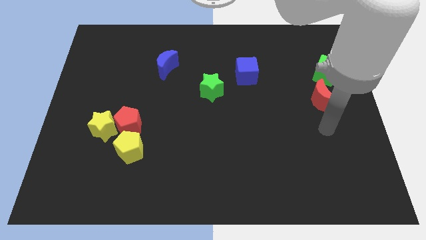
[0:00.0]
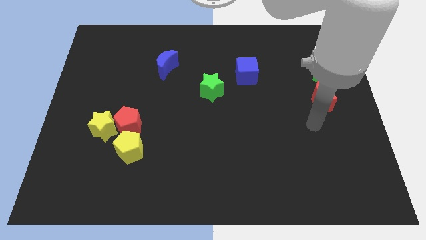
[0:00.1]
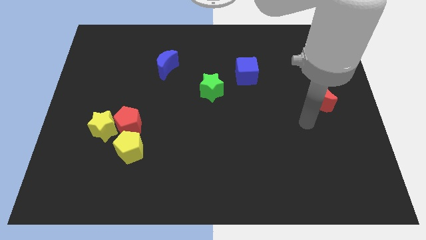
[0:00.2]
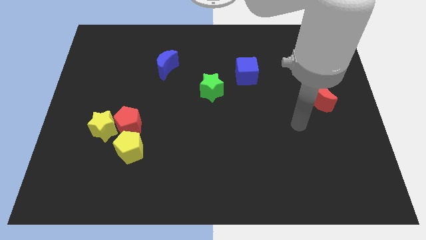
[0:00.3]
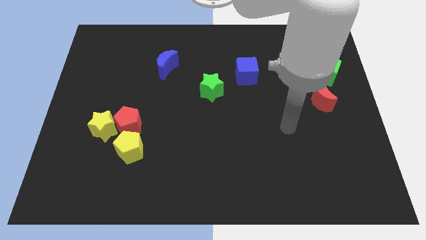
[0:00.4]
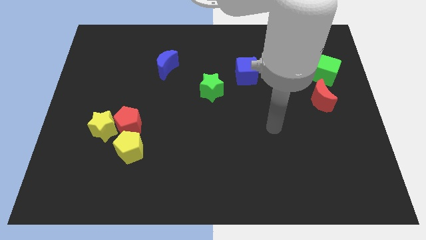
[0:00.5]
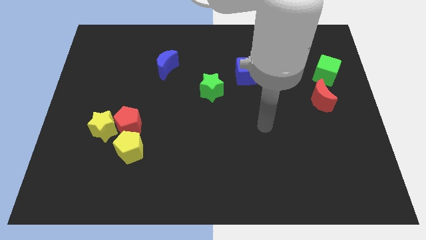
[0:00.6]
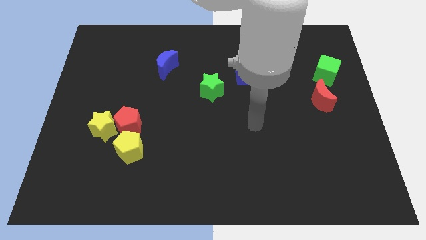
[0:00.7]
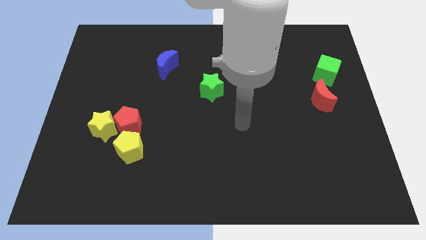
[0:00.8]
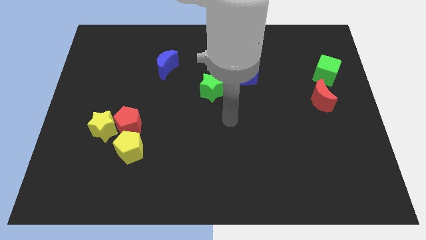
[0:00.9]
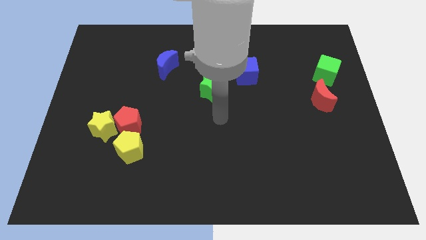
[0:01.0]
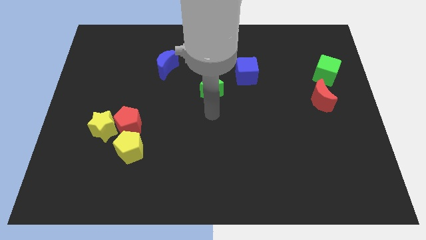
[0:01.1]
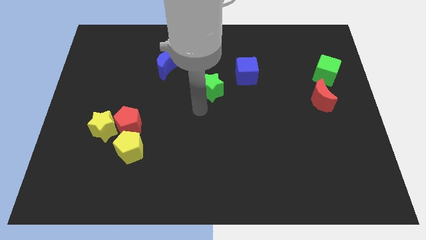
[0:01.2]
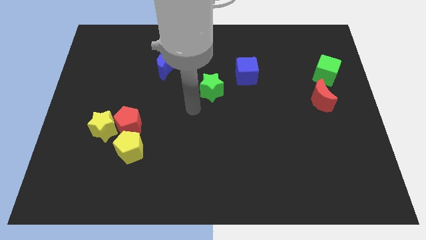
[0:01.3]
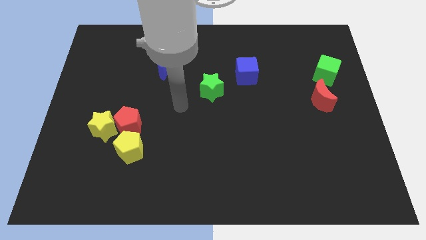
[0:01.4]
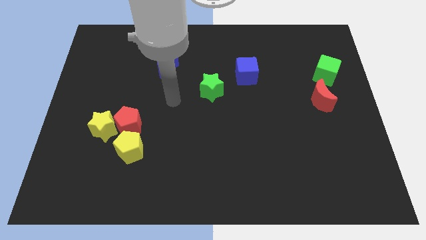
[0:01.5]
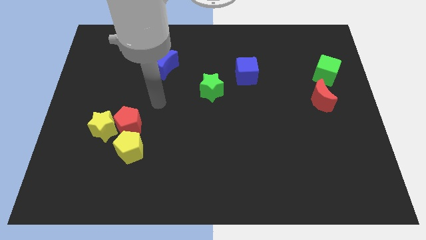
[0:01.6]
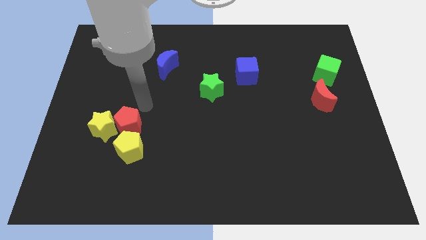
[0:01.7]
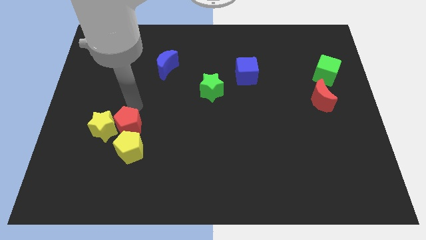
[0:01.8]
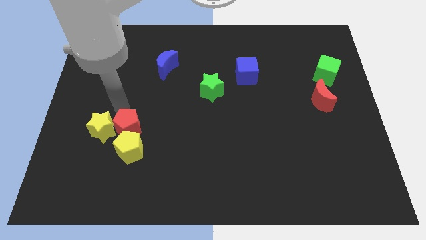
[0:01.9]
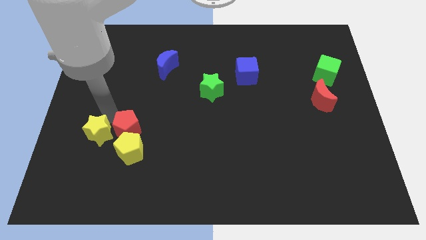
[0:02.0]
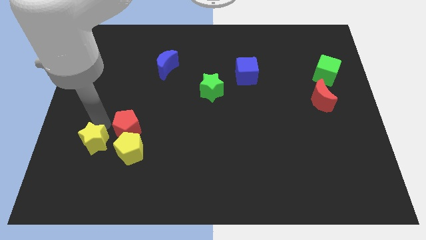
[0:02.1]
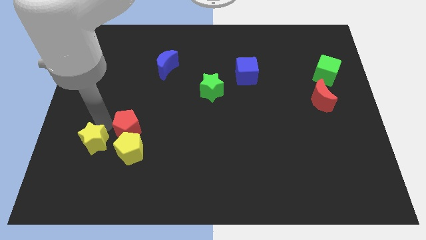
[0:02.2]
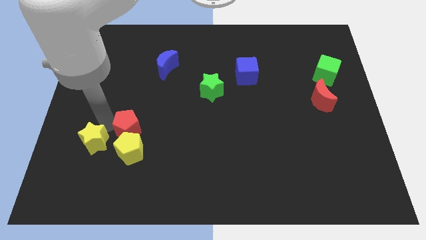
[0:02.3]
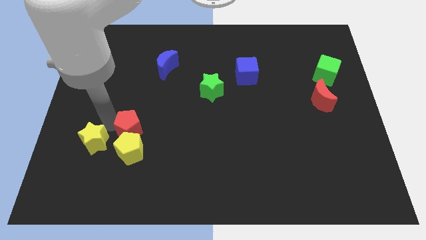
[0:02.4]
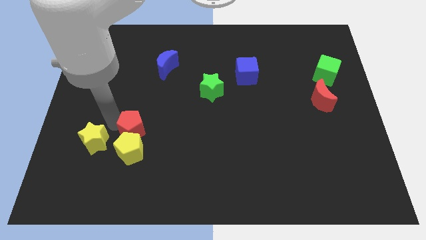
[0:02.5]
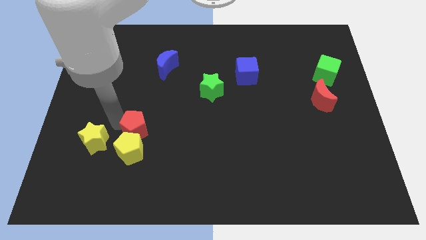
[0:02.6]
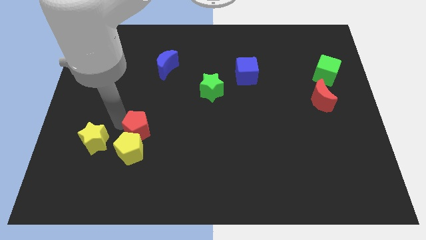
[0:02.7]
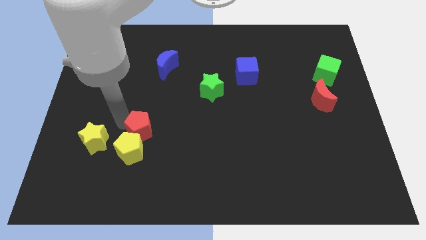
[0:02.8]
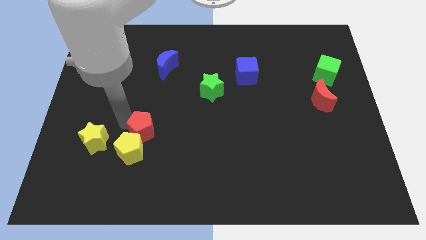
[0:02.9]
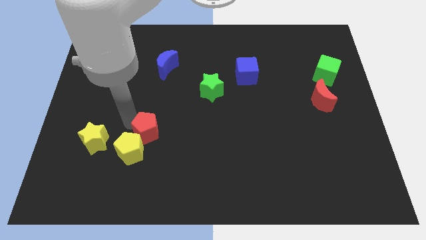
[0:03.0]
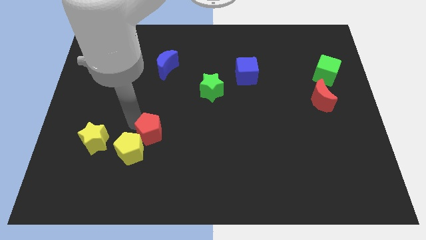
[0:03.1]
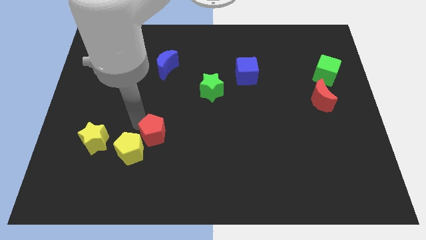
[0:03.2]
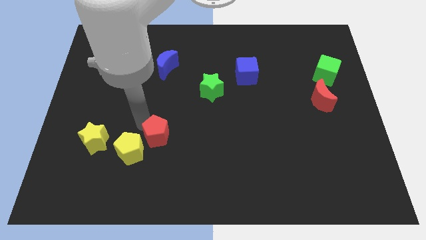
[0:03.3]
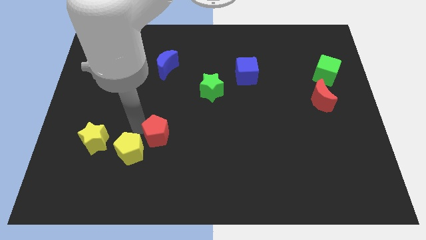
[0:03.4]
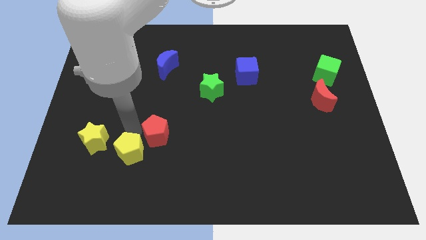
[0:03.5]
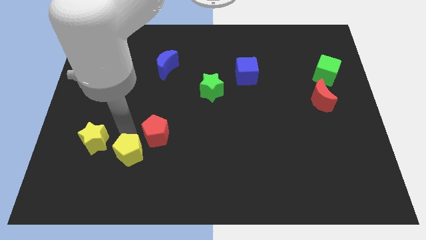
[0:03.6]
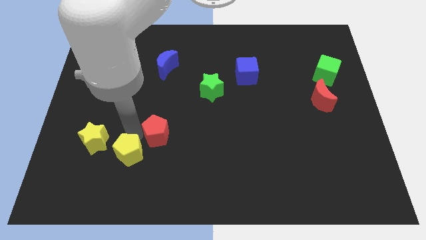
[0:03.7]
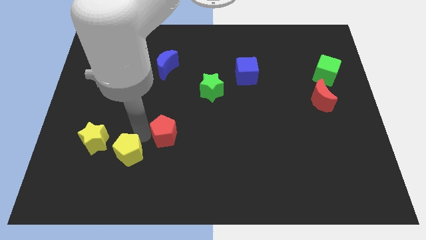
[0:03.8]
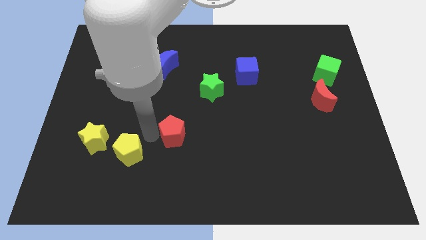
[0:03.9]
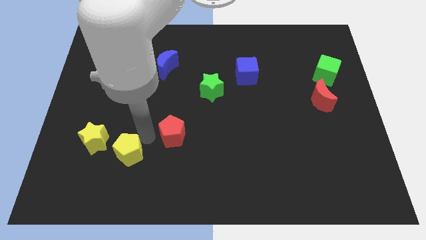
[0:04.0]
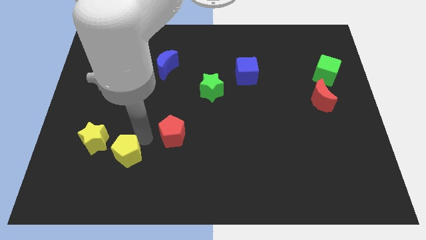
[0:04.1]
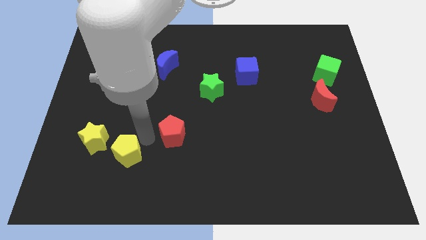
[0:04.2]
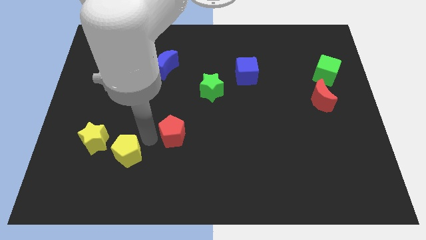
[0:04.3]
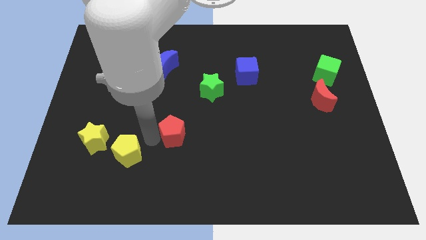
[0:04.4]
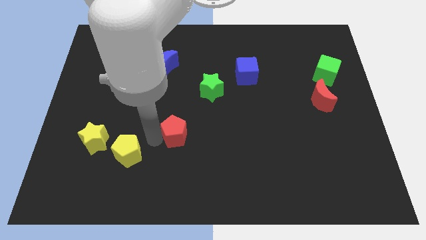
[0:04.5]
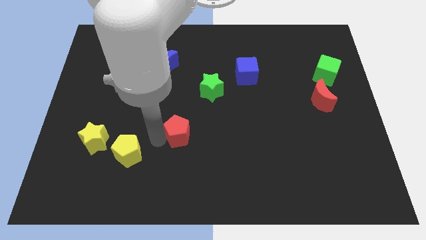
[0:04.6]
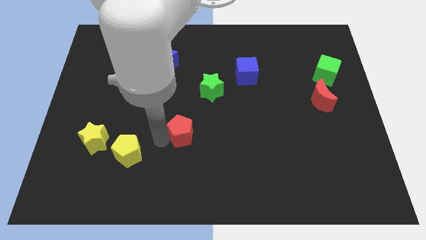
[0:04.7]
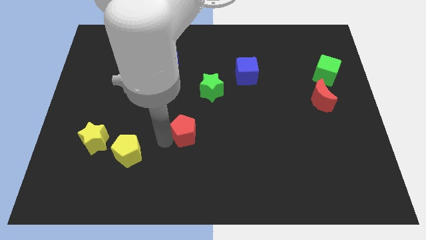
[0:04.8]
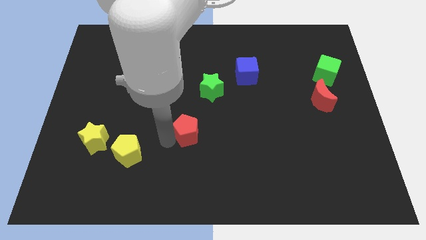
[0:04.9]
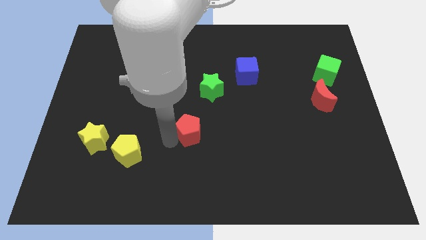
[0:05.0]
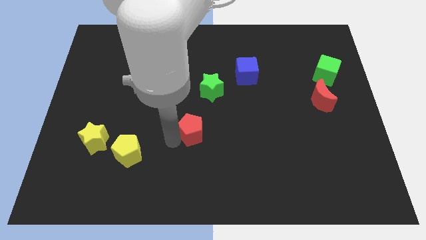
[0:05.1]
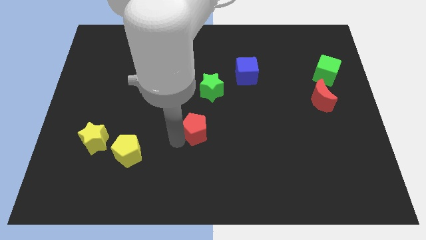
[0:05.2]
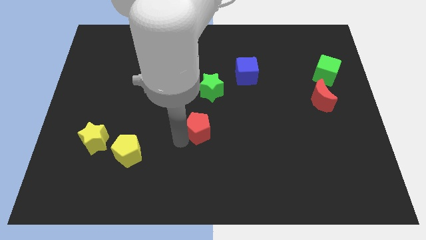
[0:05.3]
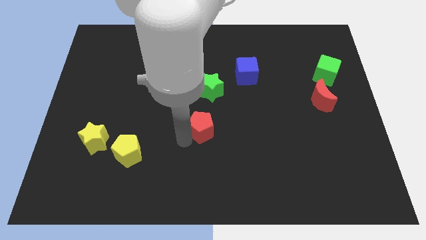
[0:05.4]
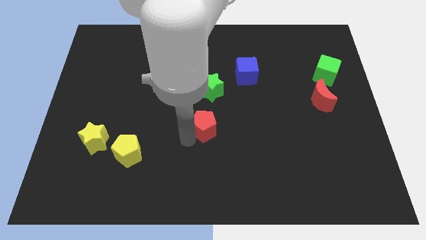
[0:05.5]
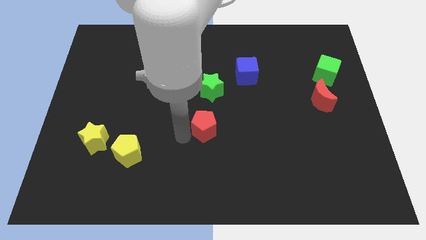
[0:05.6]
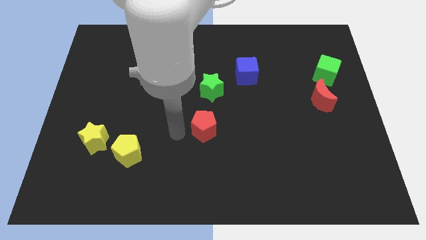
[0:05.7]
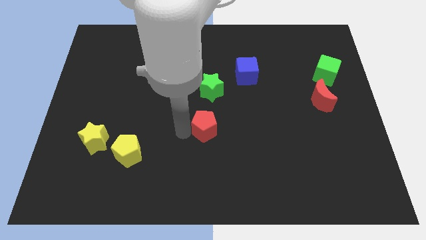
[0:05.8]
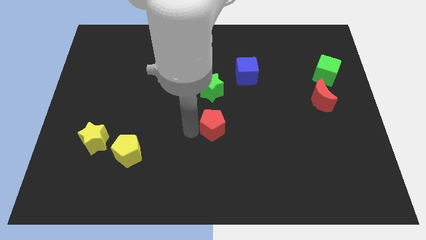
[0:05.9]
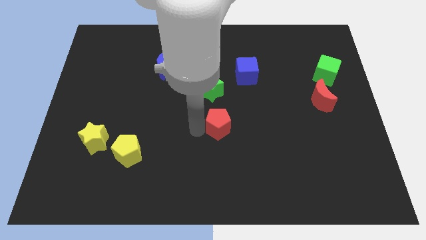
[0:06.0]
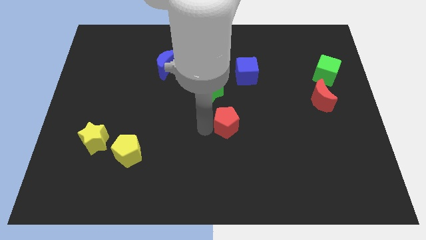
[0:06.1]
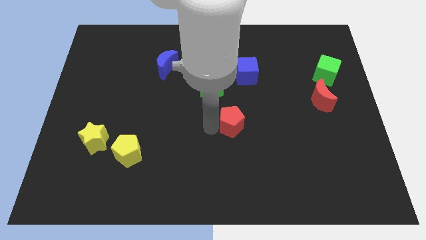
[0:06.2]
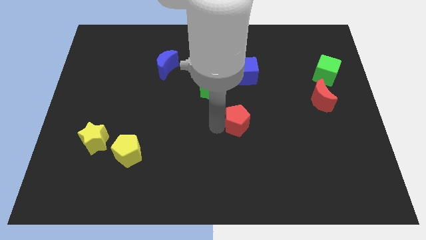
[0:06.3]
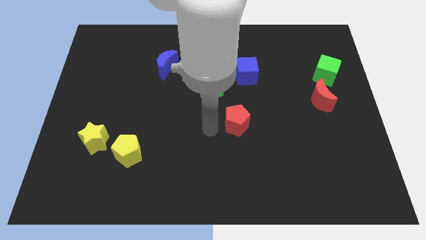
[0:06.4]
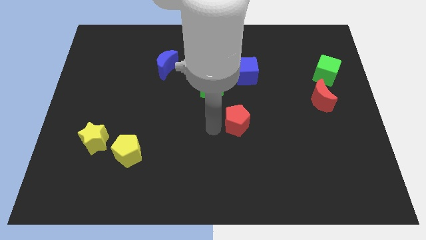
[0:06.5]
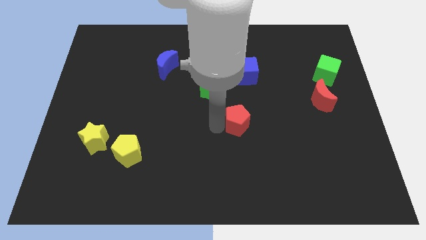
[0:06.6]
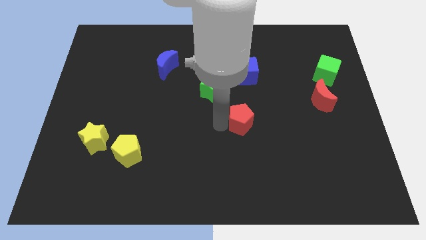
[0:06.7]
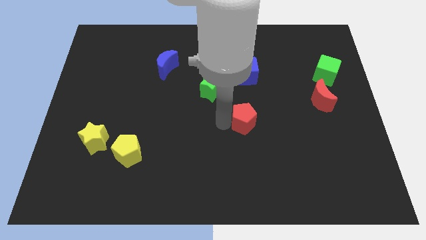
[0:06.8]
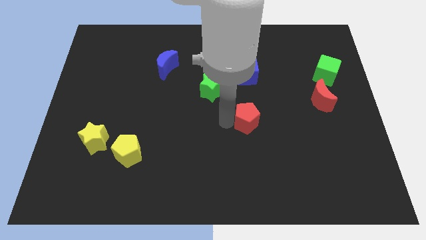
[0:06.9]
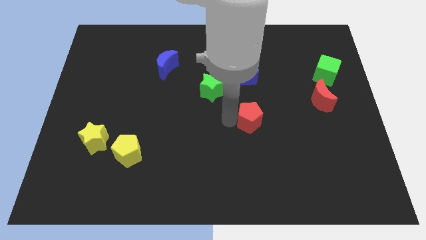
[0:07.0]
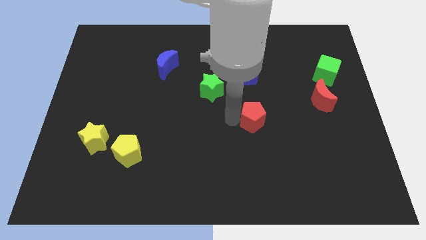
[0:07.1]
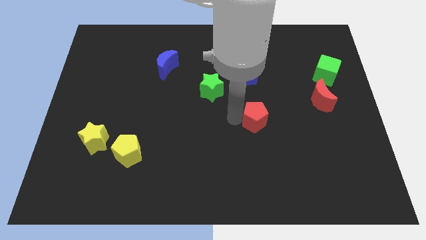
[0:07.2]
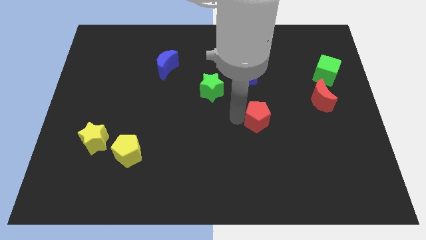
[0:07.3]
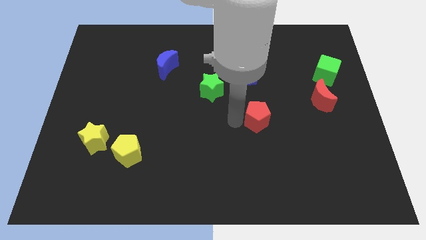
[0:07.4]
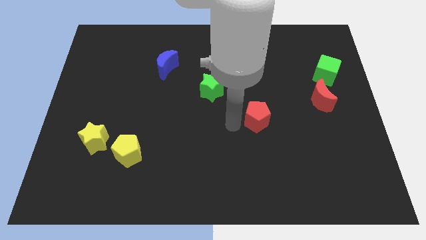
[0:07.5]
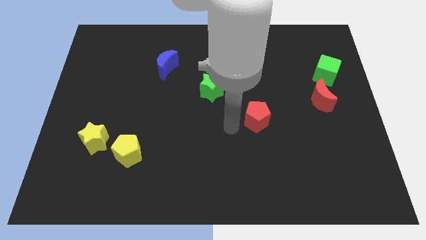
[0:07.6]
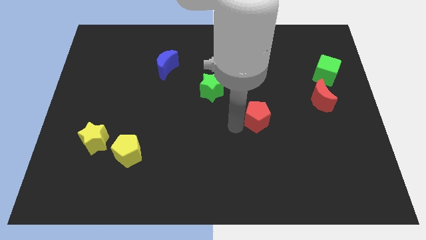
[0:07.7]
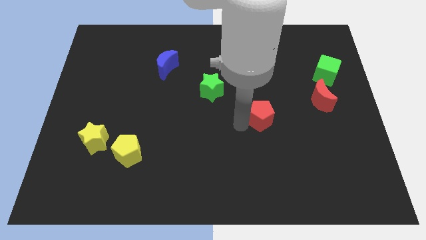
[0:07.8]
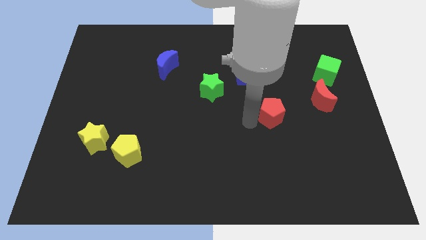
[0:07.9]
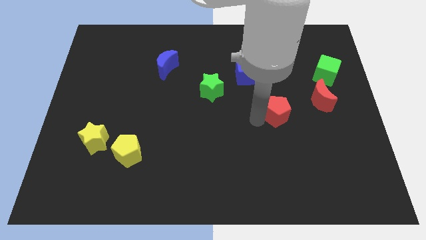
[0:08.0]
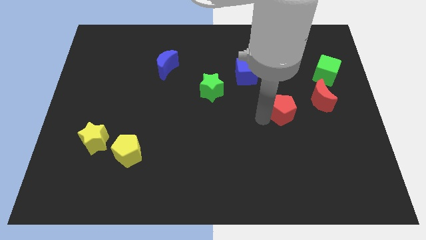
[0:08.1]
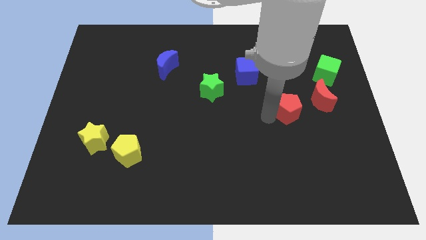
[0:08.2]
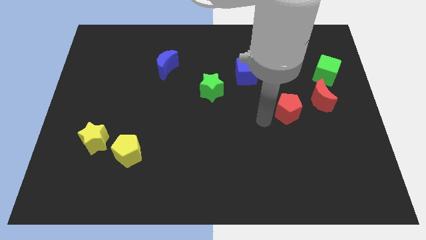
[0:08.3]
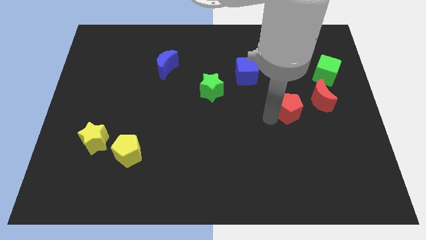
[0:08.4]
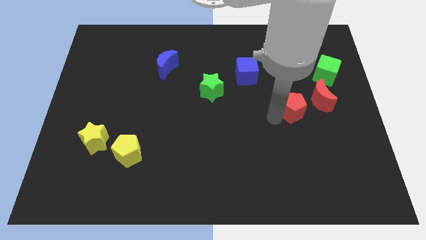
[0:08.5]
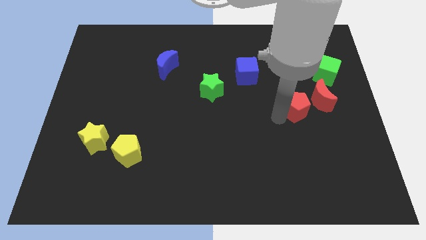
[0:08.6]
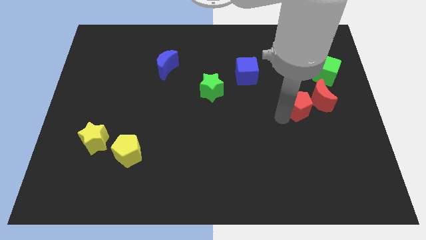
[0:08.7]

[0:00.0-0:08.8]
put the red pentagon to the red moon
